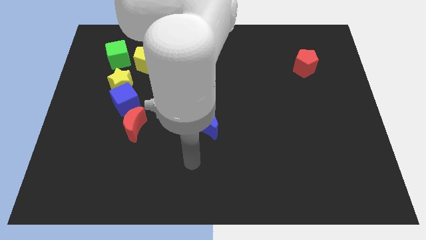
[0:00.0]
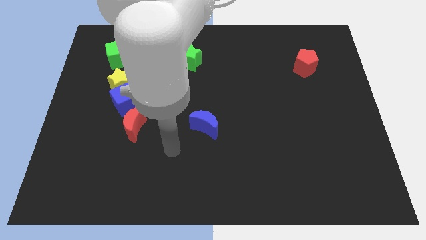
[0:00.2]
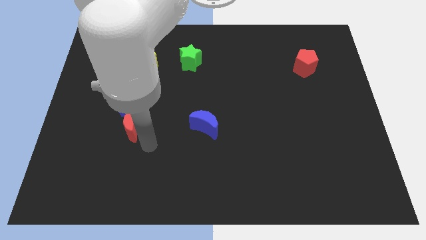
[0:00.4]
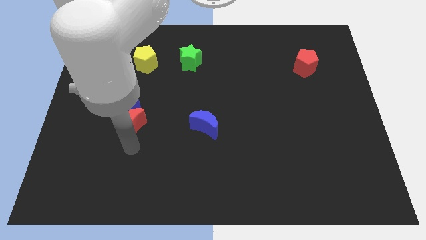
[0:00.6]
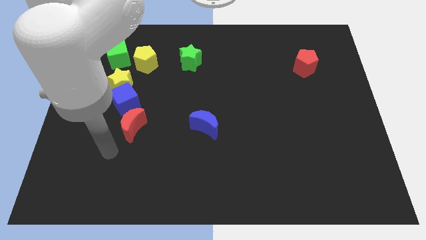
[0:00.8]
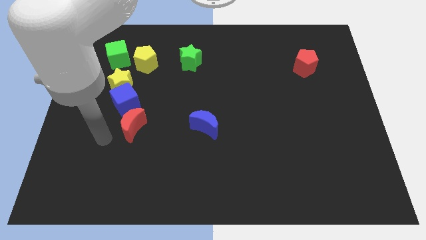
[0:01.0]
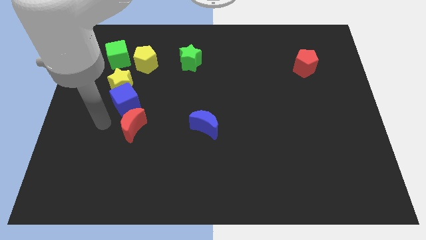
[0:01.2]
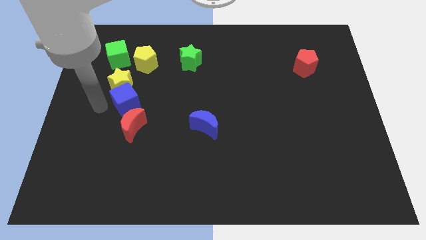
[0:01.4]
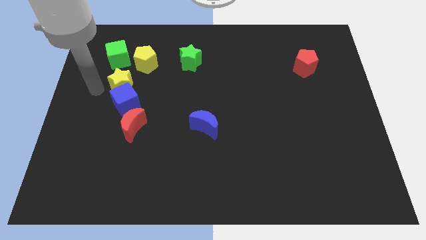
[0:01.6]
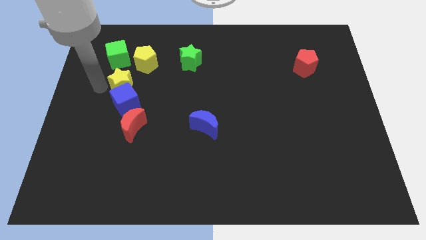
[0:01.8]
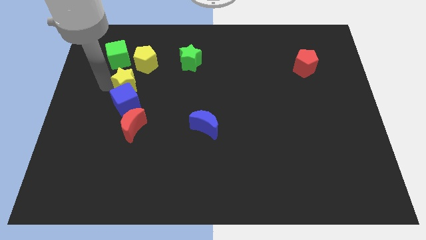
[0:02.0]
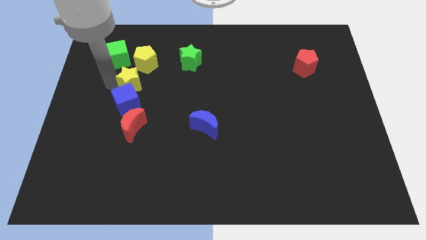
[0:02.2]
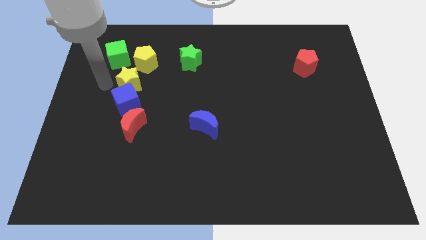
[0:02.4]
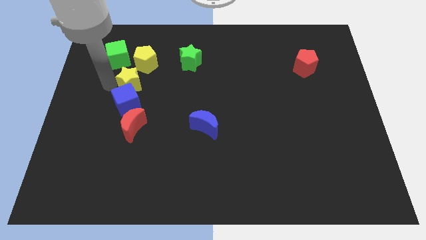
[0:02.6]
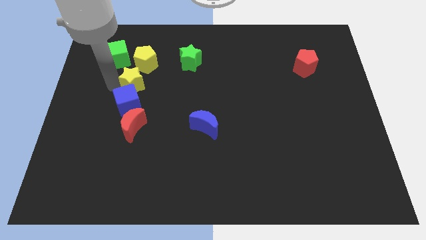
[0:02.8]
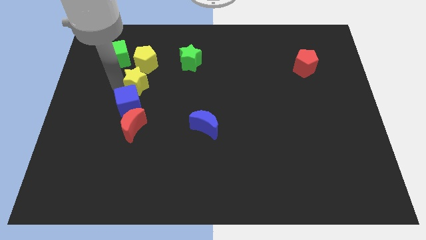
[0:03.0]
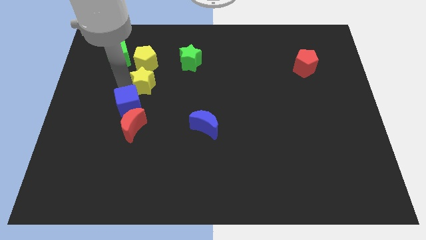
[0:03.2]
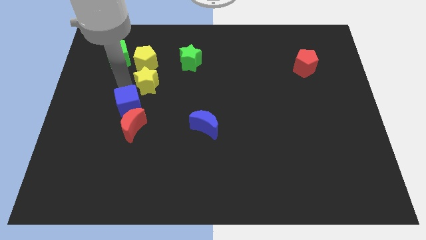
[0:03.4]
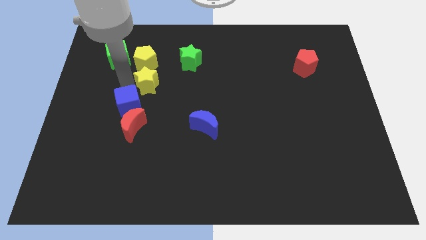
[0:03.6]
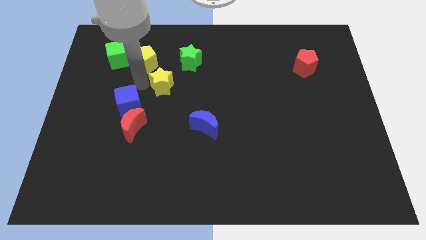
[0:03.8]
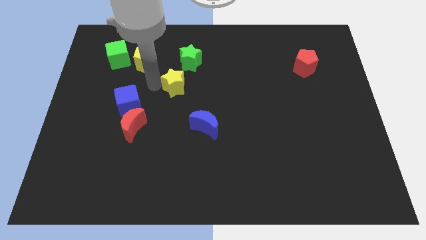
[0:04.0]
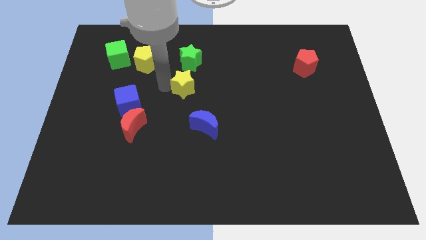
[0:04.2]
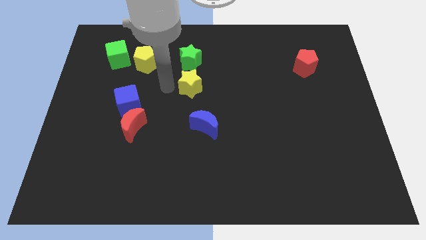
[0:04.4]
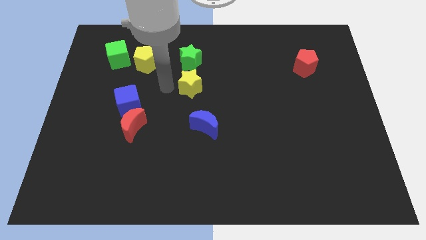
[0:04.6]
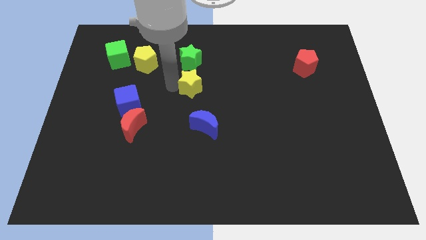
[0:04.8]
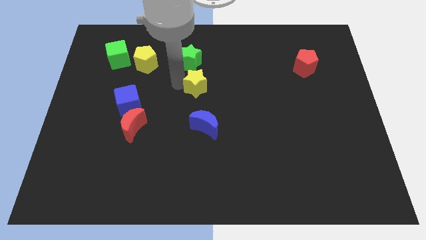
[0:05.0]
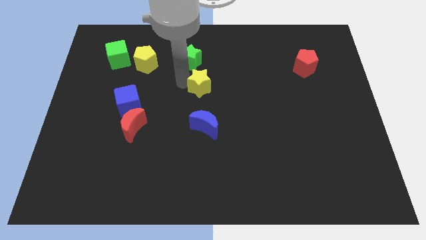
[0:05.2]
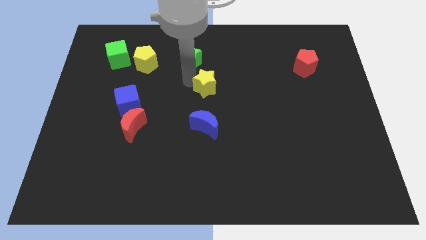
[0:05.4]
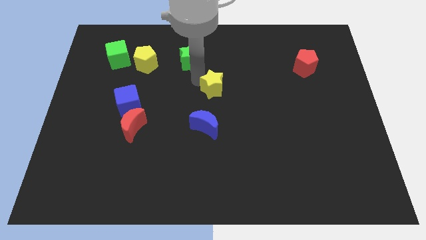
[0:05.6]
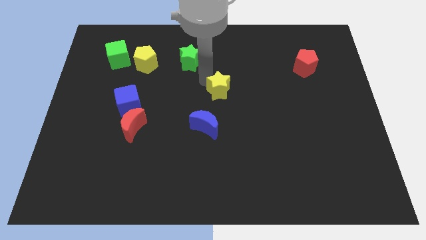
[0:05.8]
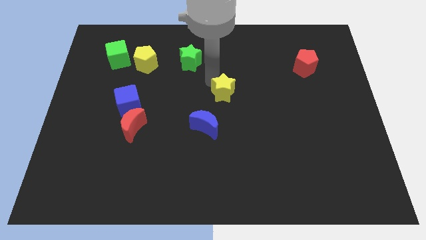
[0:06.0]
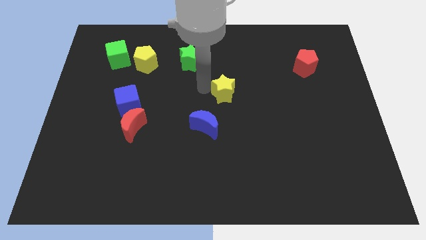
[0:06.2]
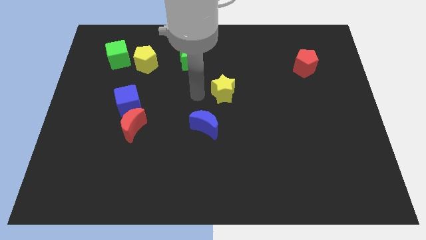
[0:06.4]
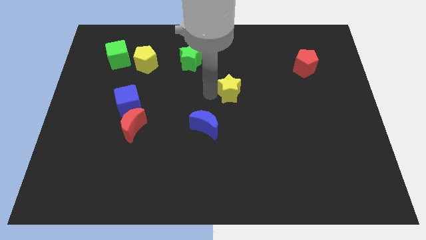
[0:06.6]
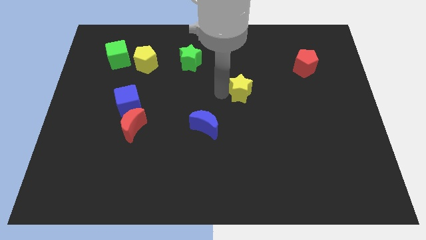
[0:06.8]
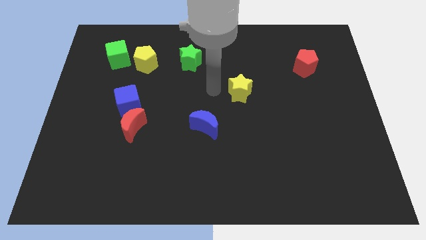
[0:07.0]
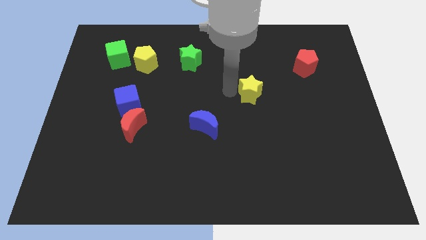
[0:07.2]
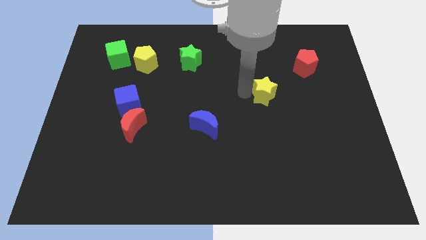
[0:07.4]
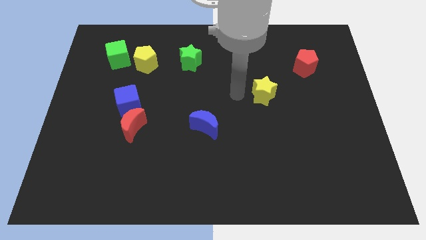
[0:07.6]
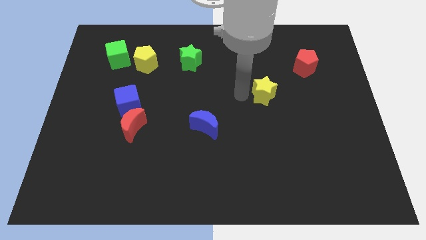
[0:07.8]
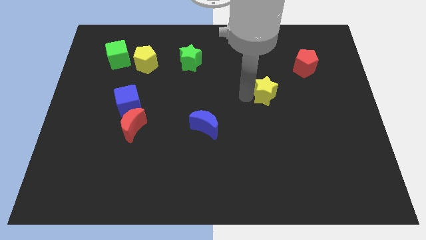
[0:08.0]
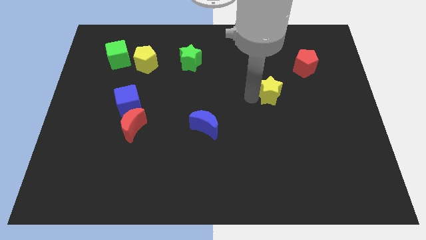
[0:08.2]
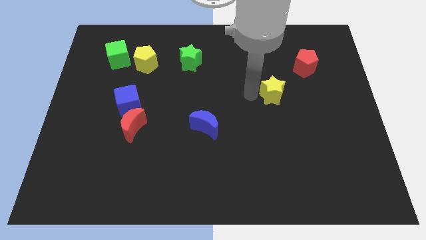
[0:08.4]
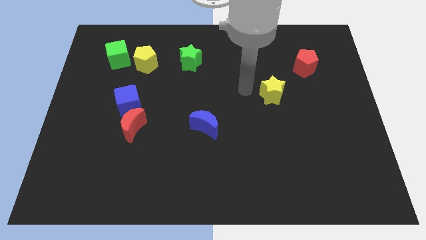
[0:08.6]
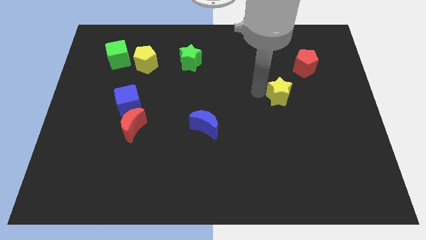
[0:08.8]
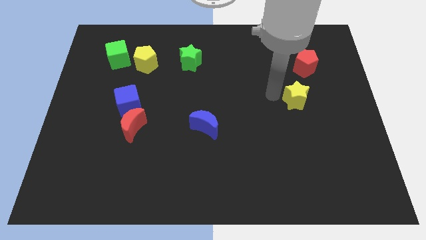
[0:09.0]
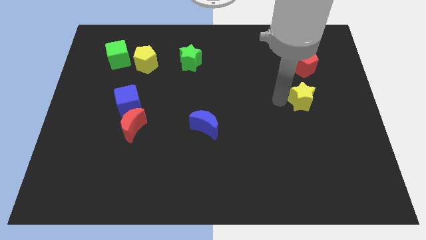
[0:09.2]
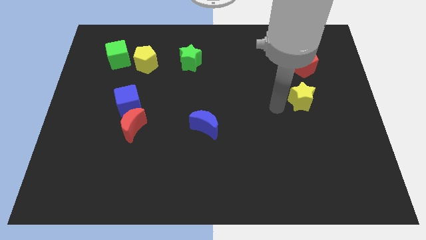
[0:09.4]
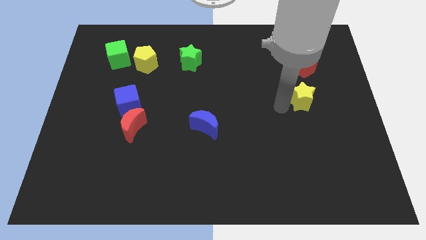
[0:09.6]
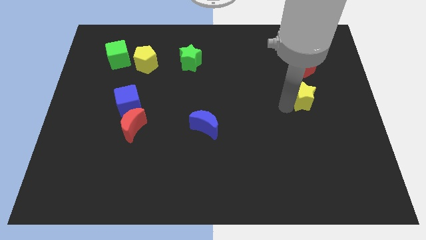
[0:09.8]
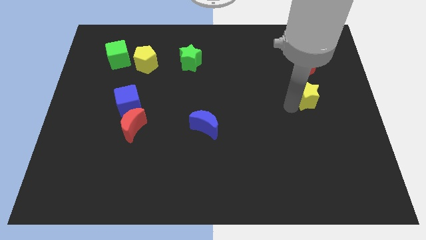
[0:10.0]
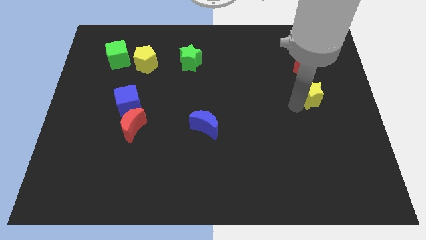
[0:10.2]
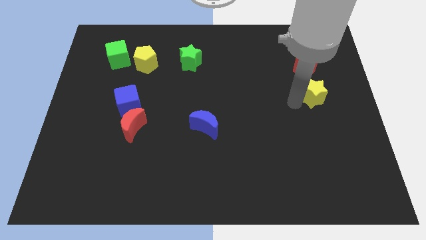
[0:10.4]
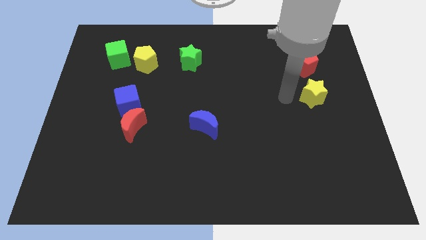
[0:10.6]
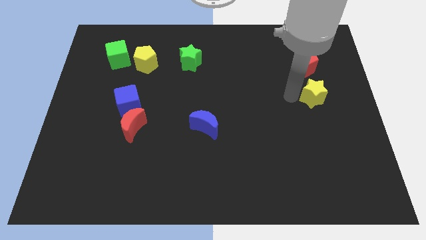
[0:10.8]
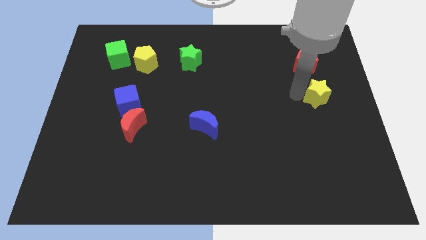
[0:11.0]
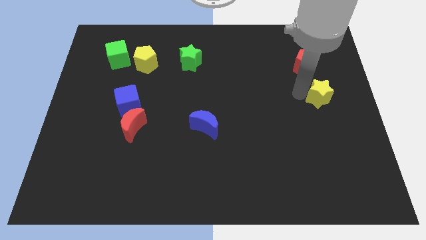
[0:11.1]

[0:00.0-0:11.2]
slide the yellow star to the right side of the board

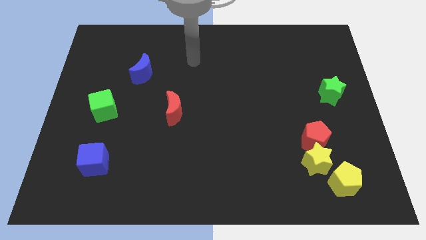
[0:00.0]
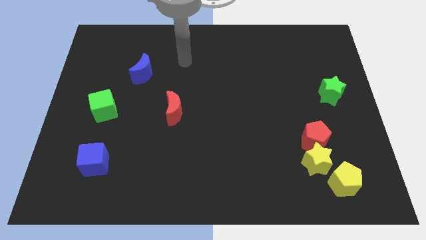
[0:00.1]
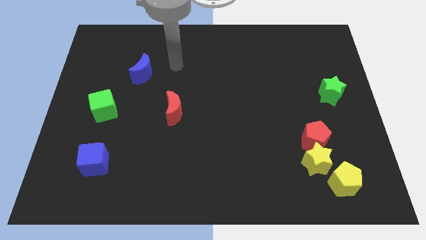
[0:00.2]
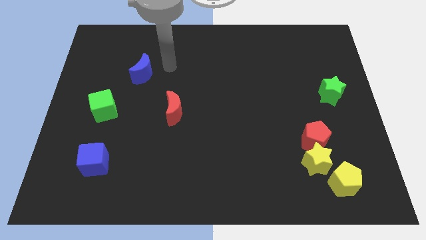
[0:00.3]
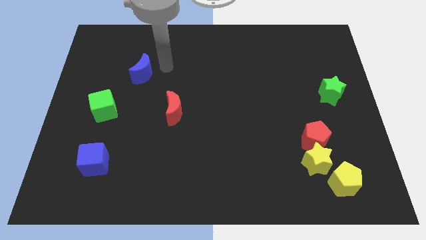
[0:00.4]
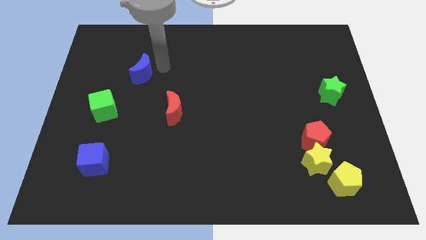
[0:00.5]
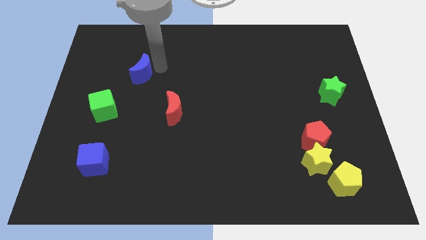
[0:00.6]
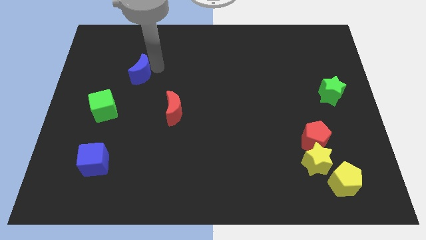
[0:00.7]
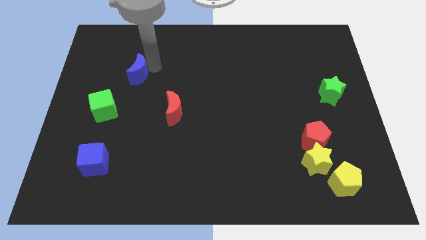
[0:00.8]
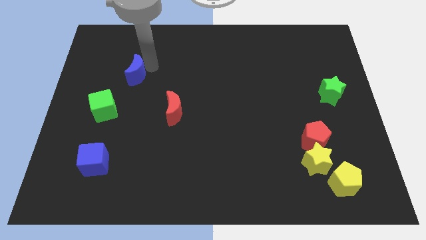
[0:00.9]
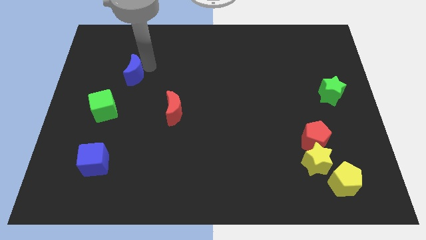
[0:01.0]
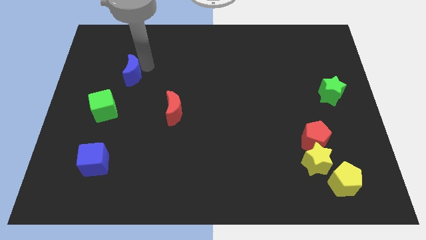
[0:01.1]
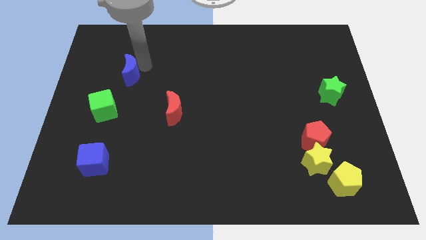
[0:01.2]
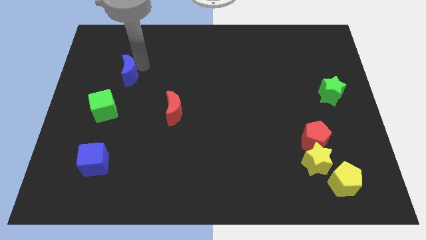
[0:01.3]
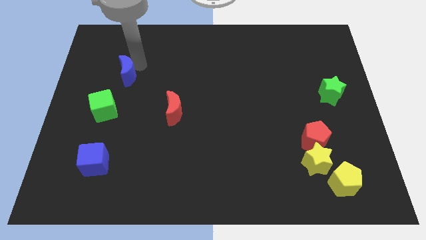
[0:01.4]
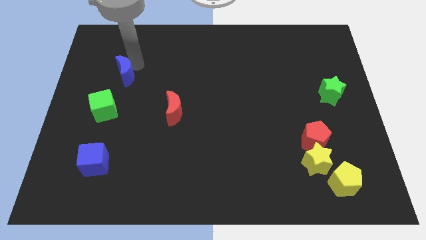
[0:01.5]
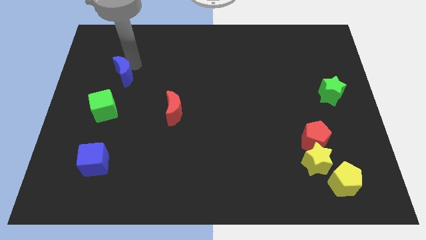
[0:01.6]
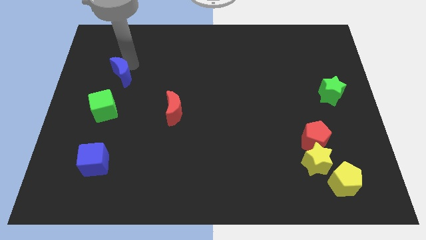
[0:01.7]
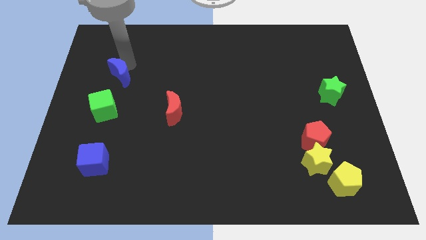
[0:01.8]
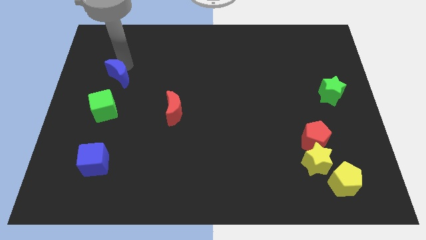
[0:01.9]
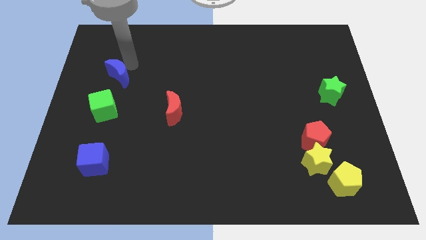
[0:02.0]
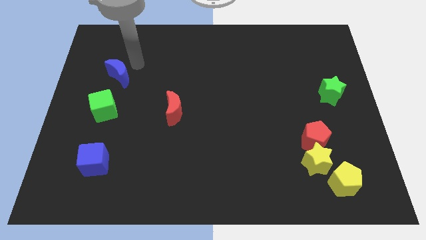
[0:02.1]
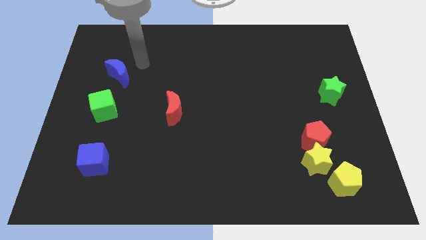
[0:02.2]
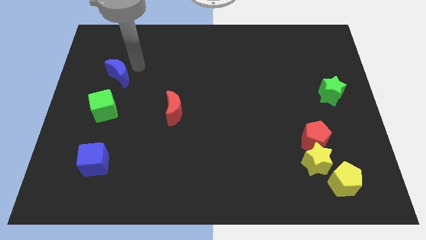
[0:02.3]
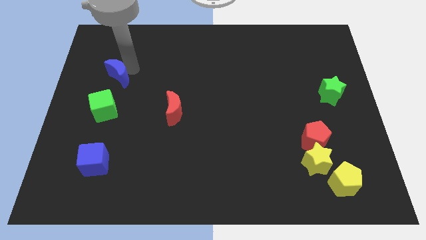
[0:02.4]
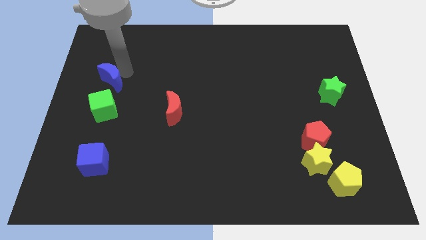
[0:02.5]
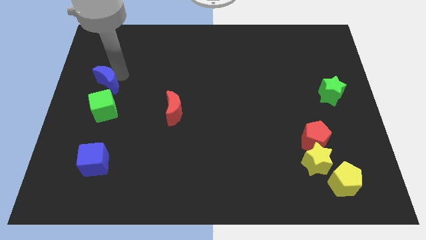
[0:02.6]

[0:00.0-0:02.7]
move the blue moon to the left side
